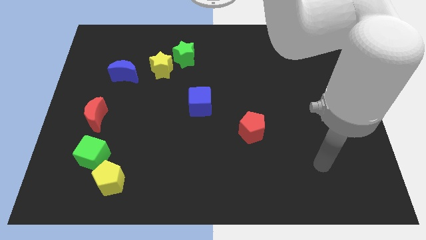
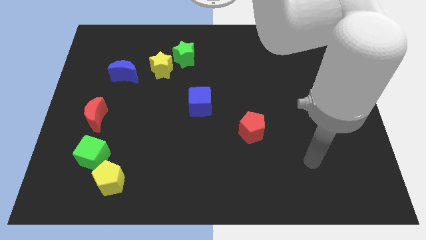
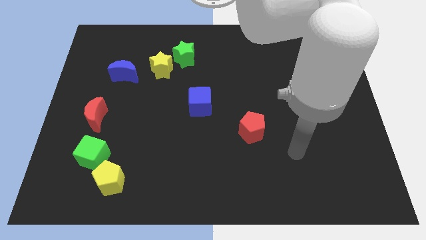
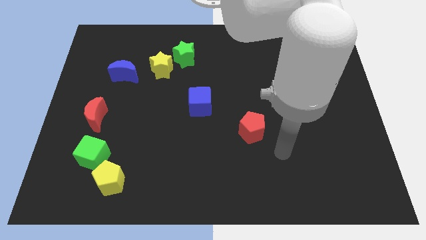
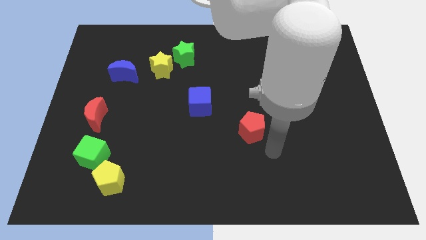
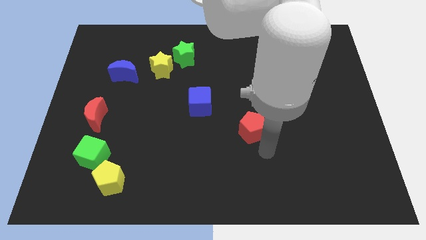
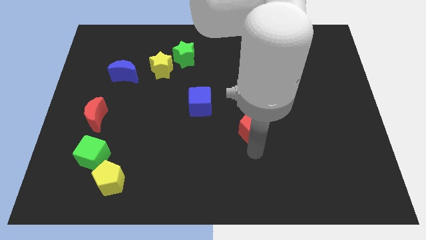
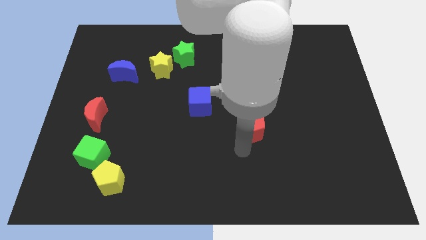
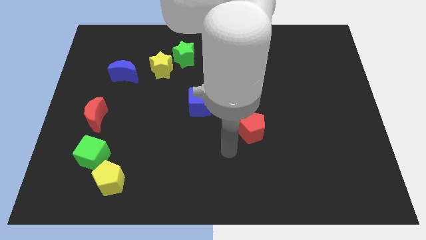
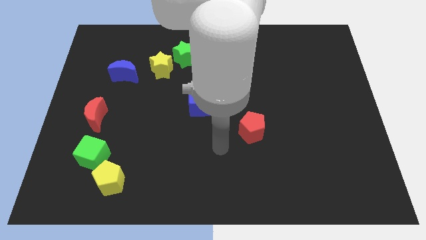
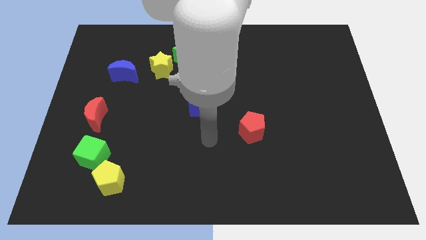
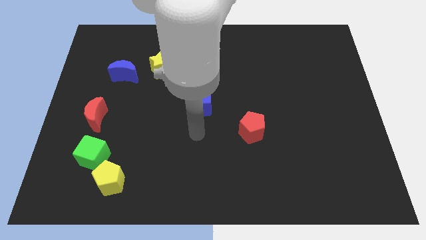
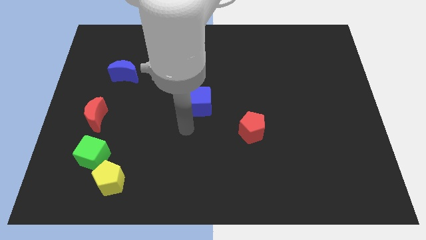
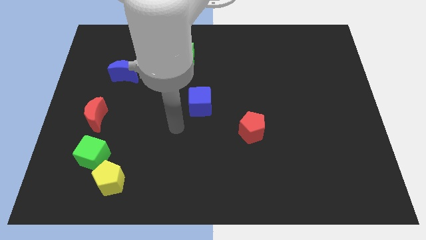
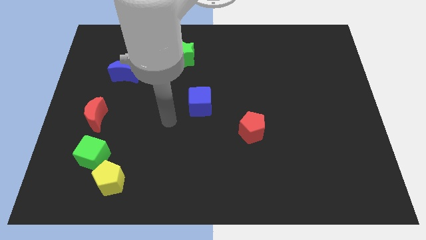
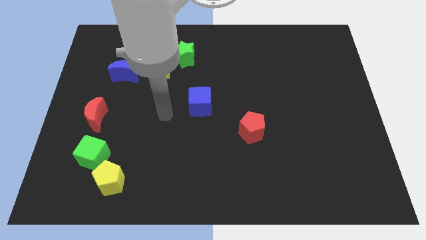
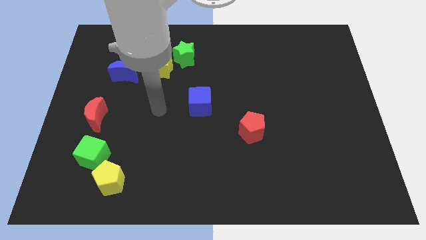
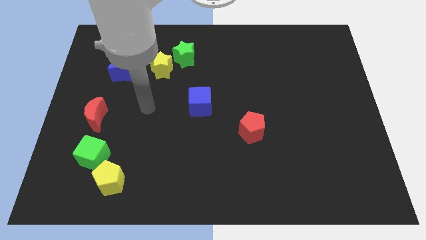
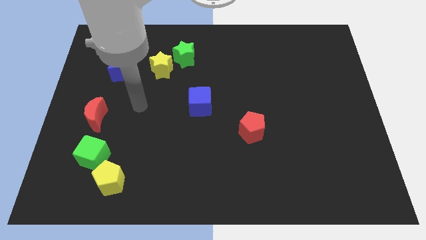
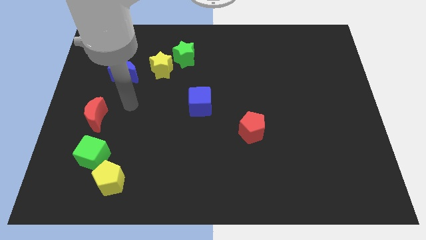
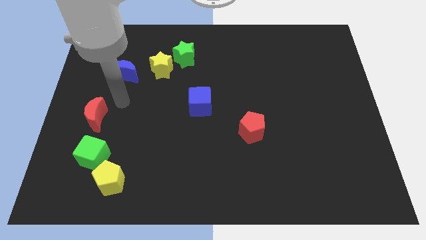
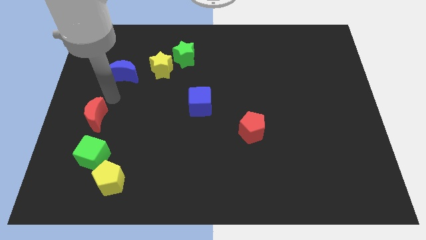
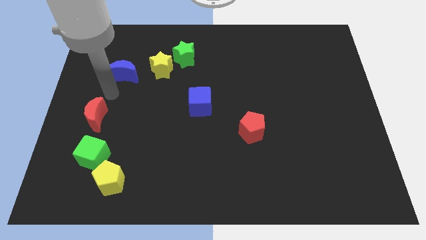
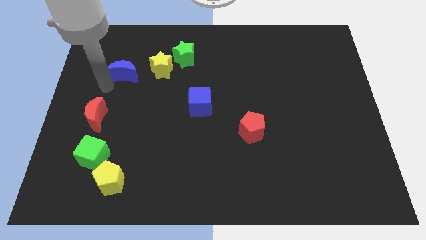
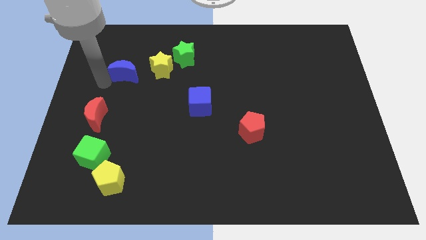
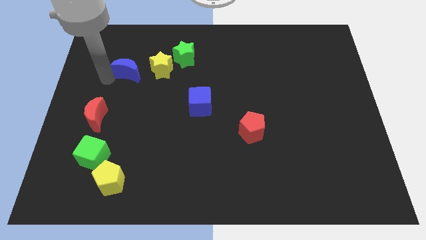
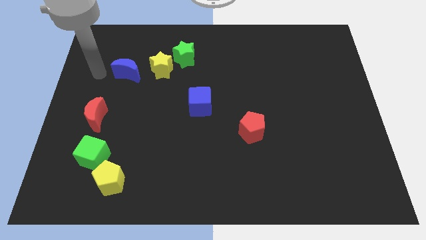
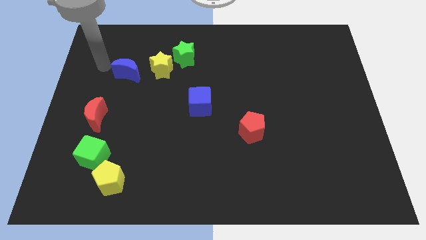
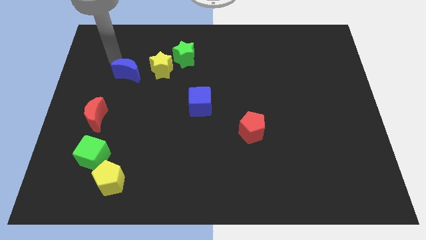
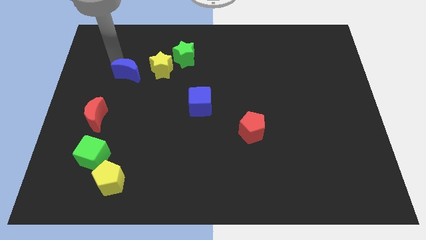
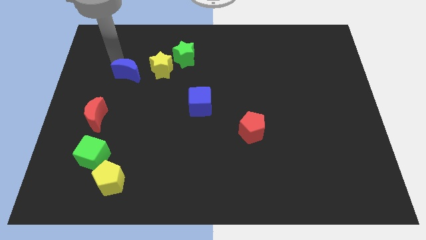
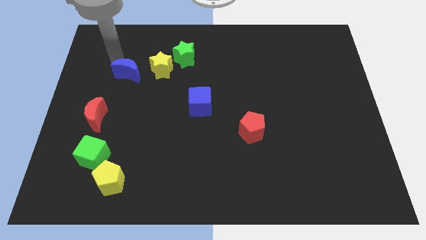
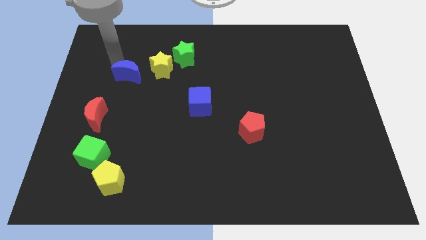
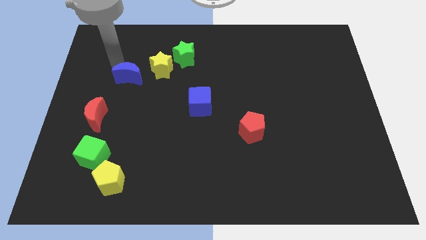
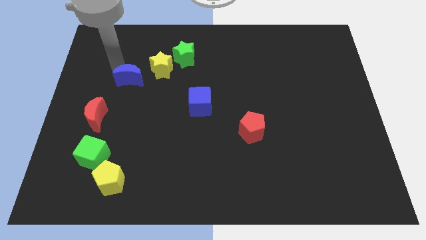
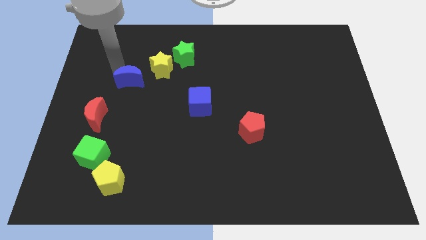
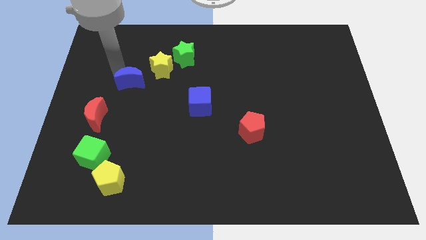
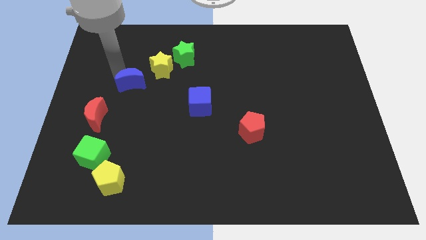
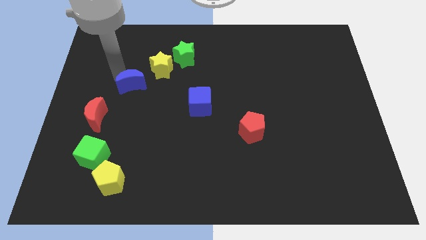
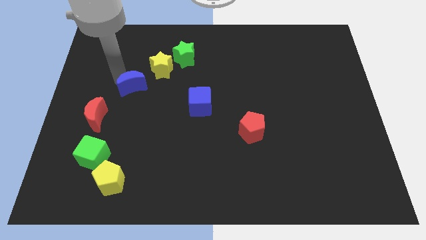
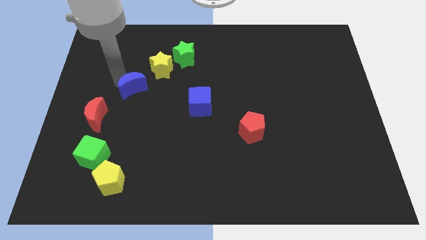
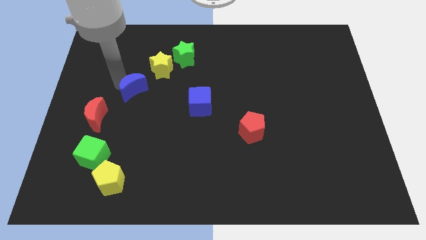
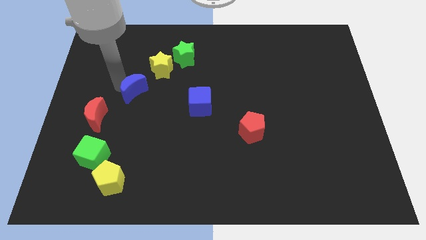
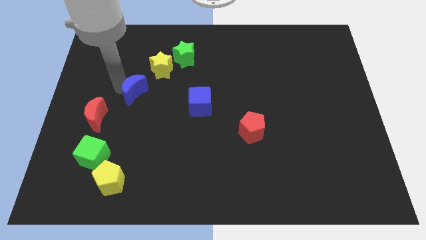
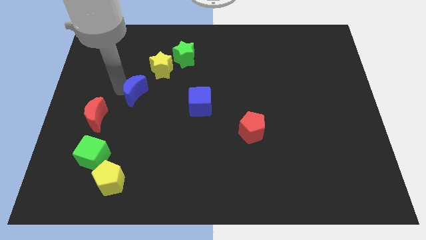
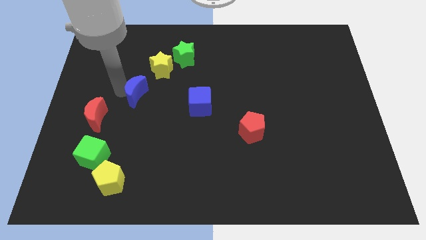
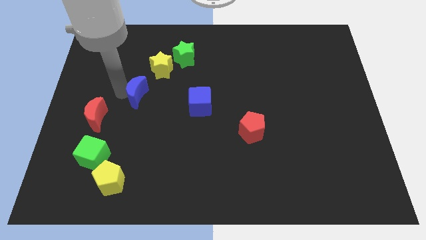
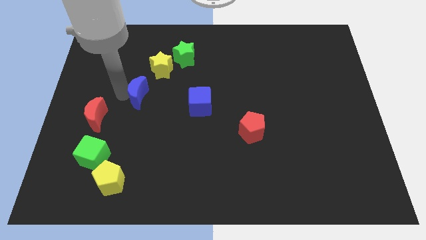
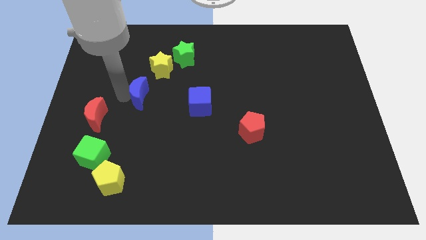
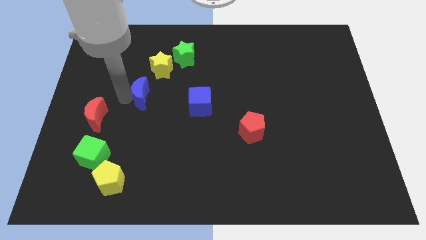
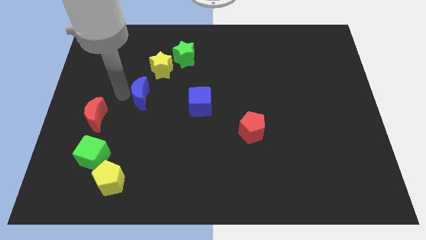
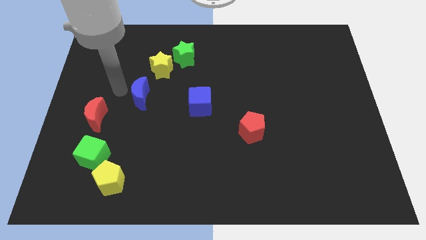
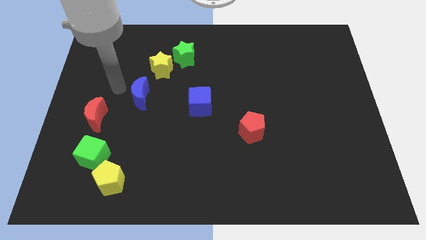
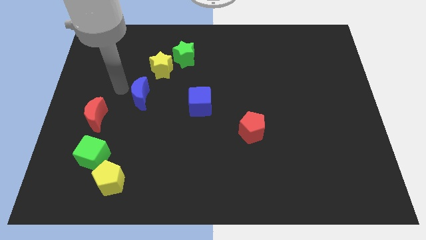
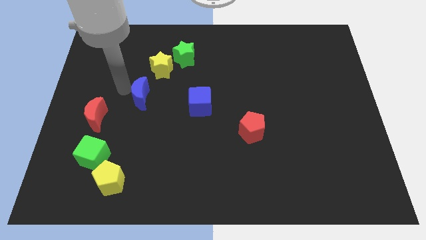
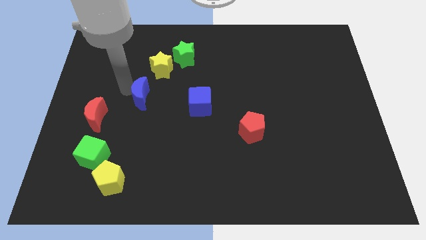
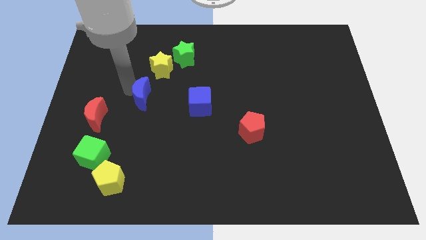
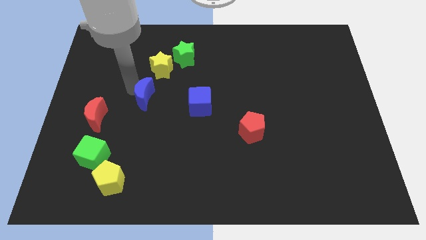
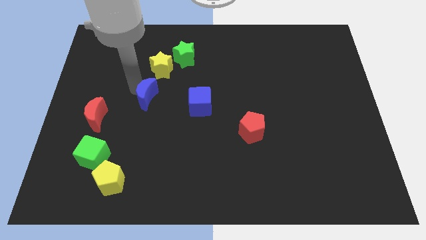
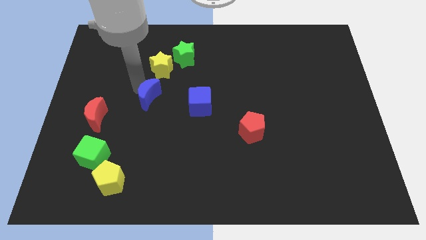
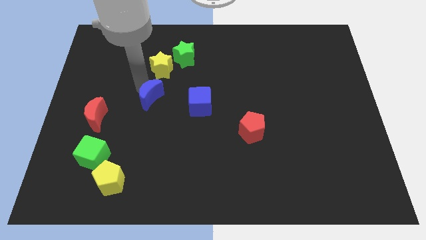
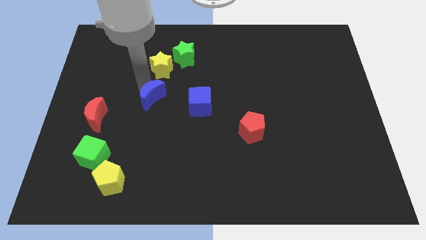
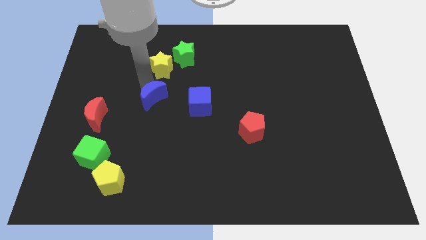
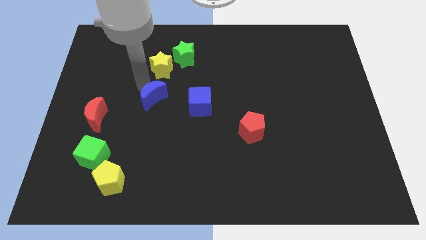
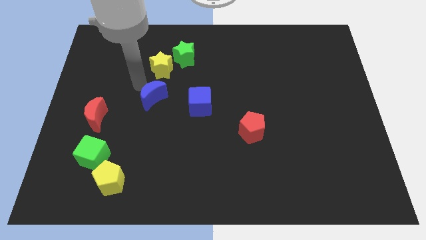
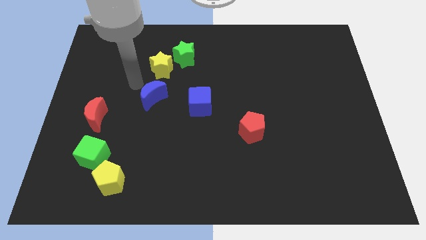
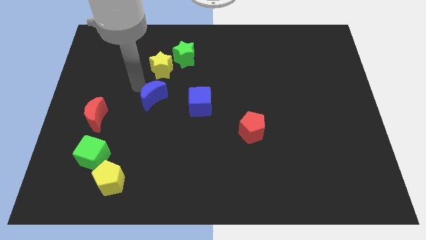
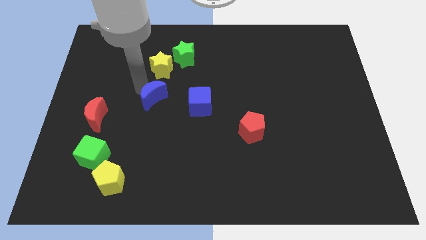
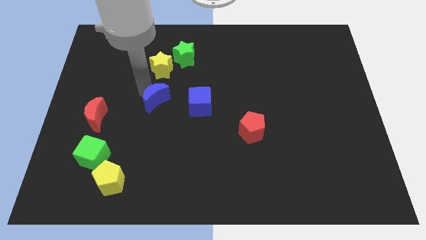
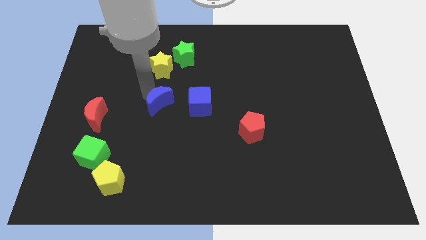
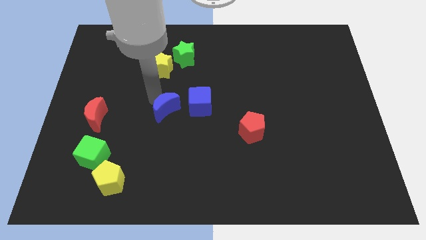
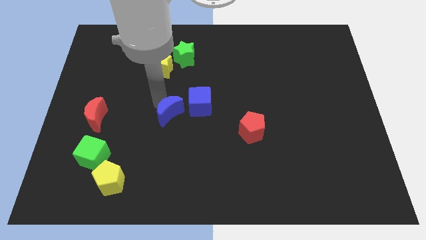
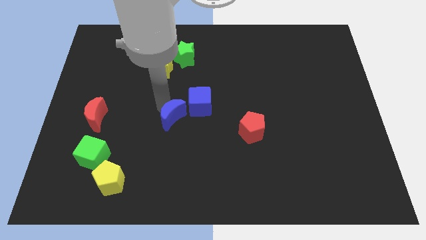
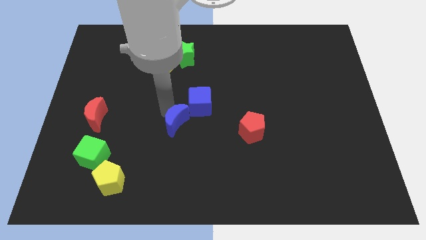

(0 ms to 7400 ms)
move the blue moon down and then to the right

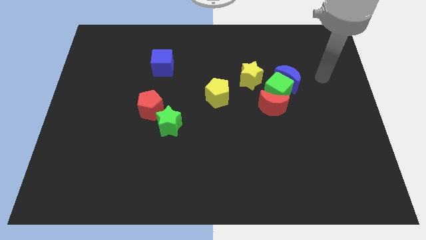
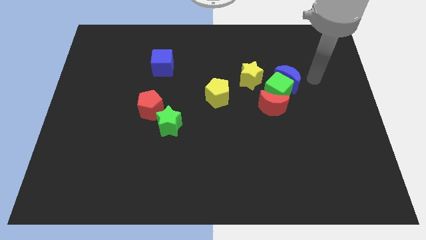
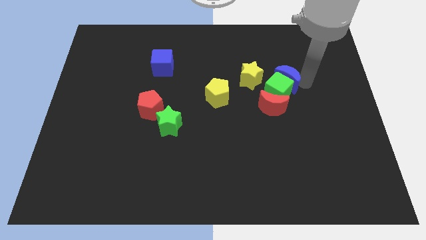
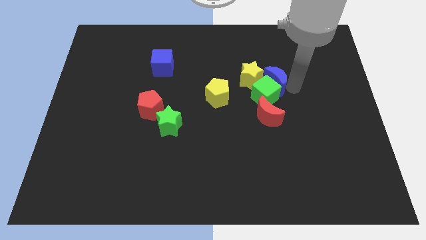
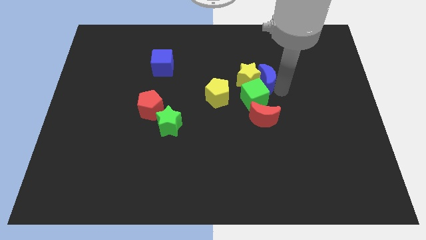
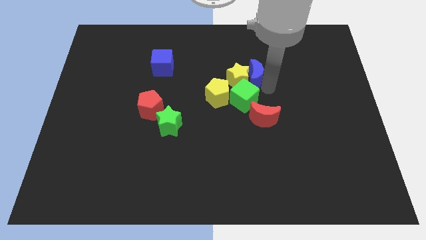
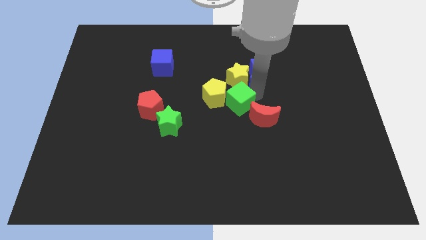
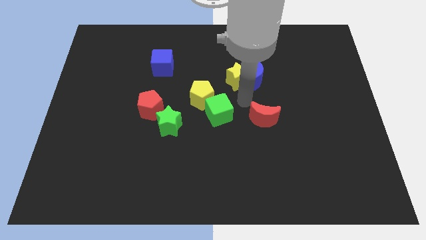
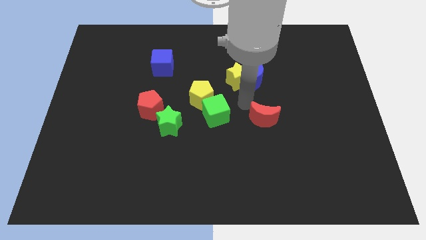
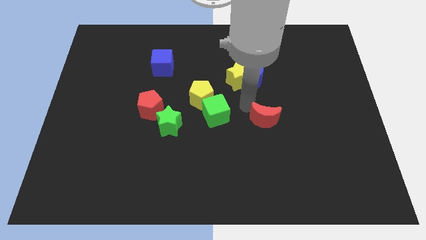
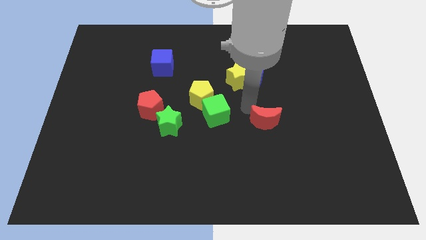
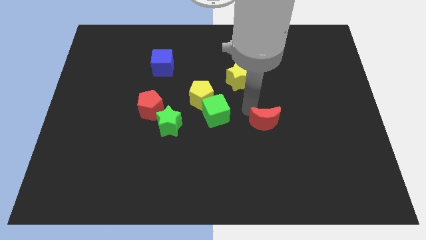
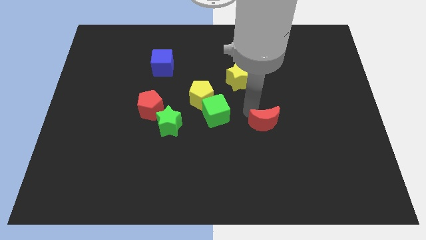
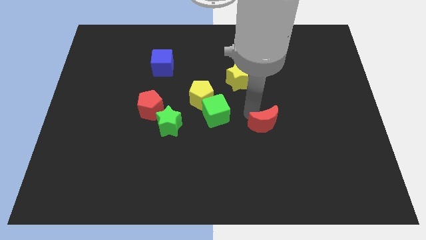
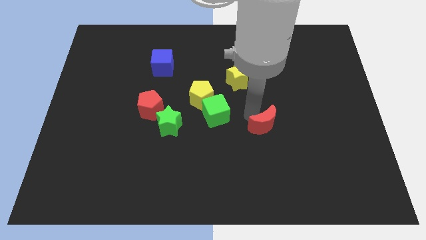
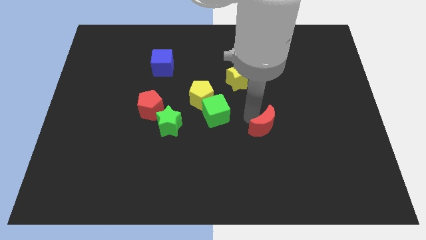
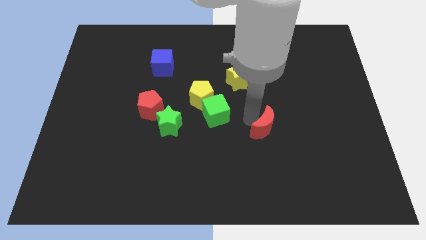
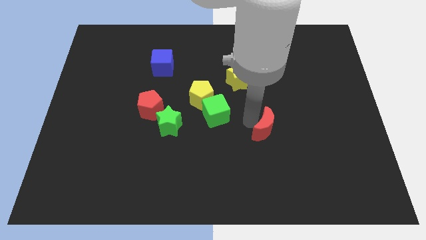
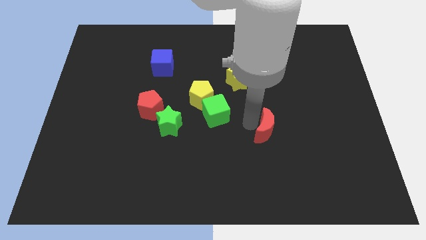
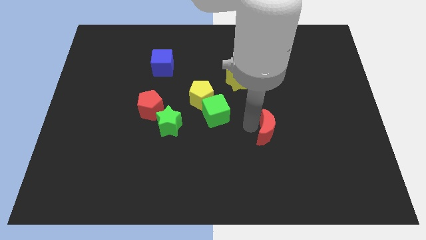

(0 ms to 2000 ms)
slide the red moon downwards a little
